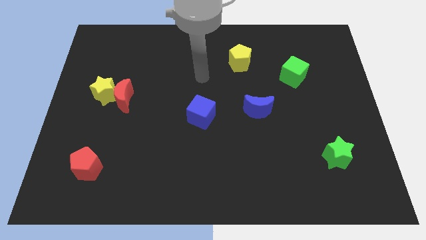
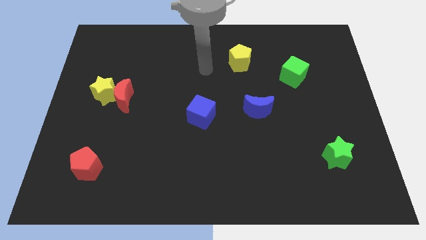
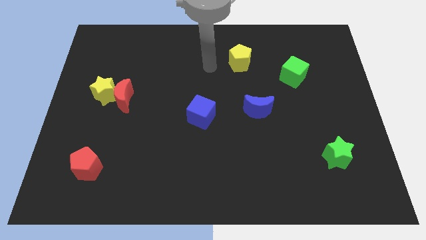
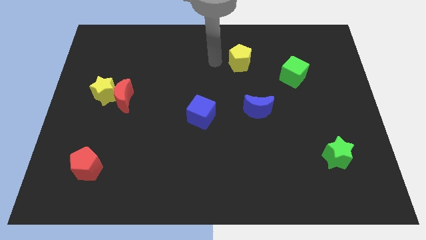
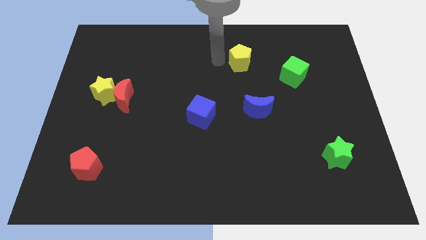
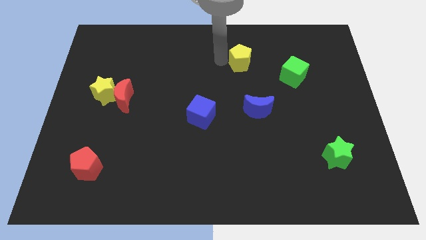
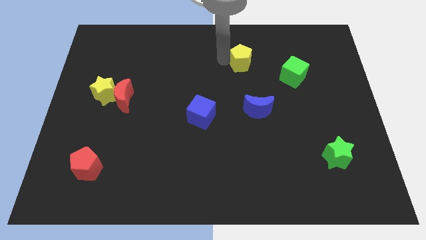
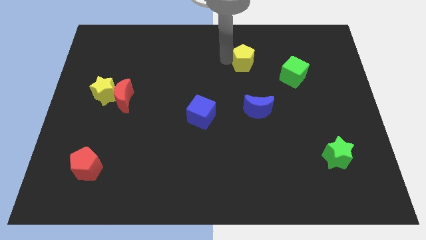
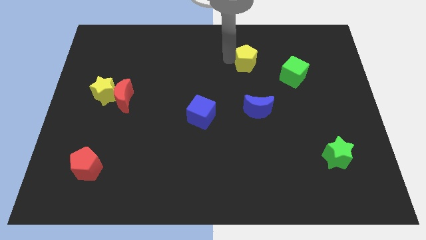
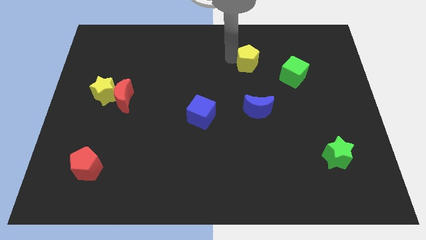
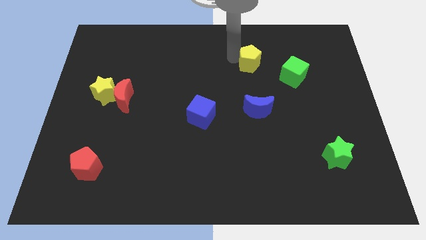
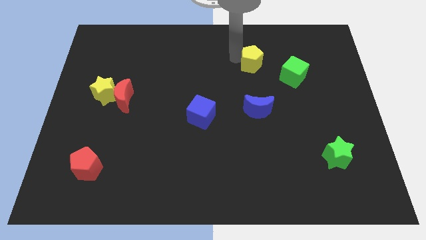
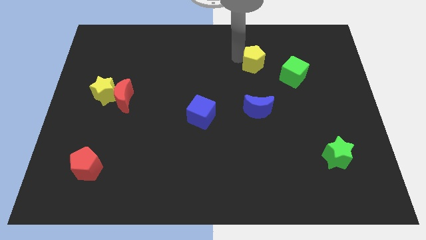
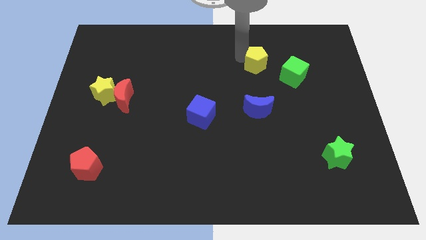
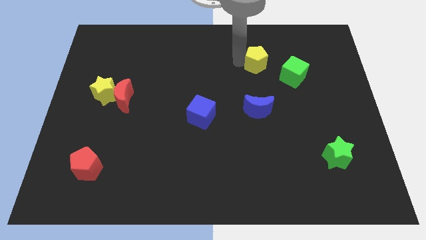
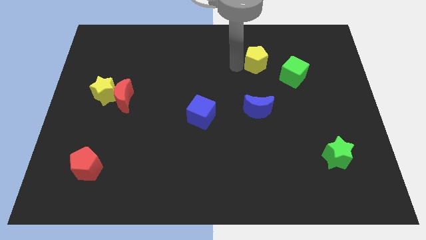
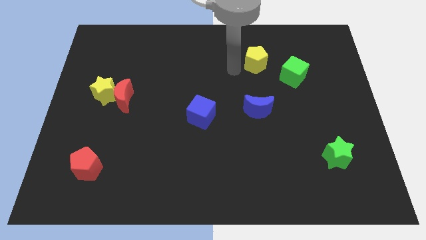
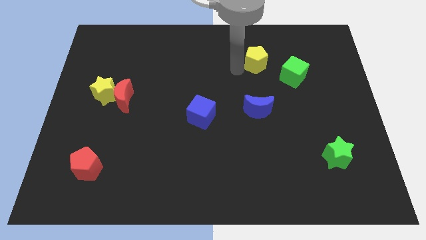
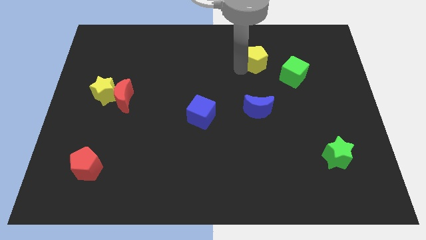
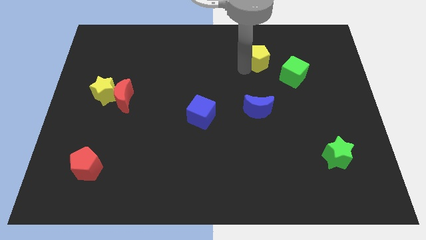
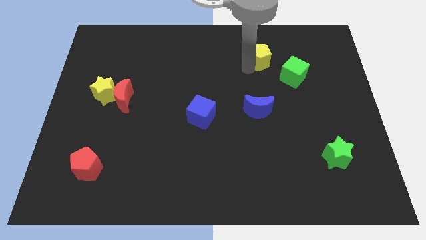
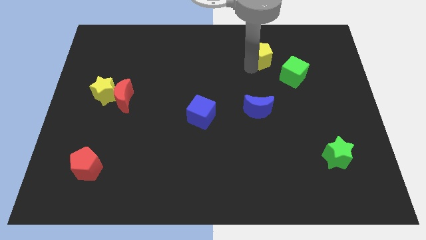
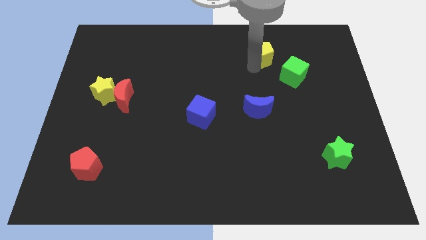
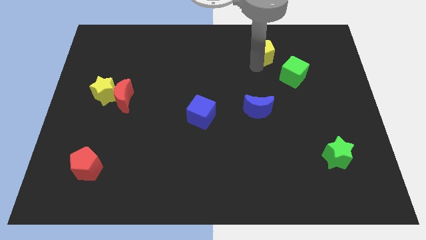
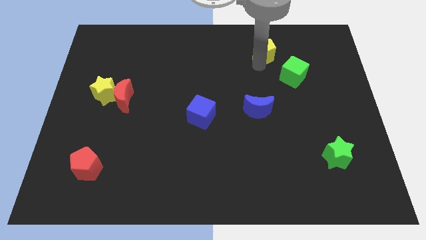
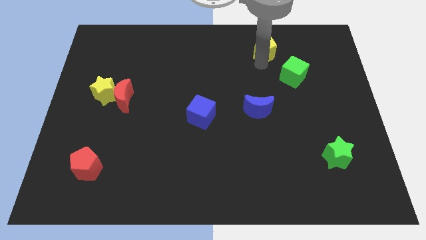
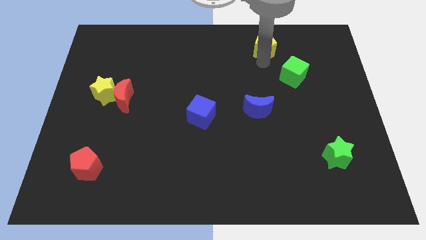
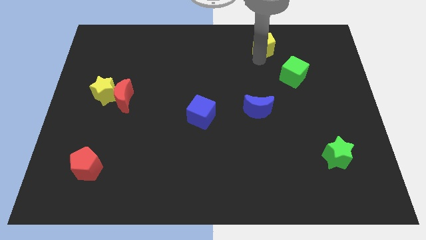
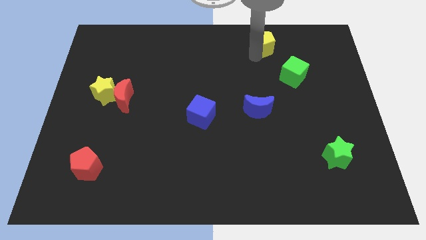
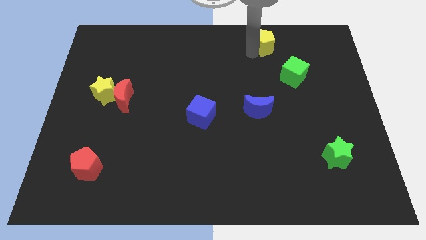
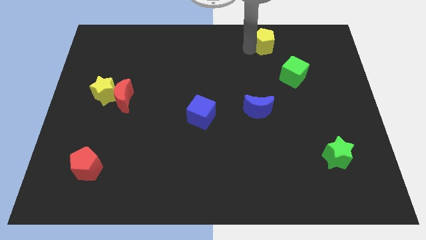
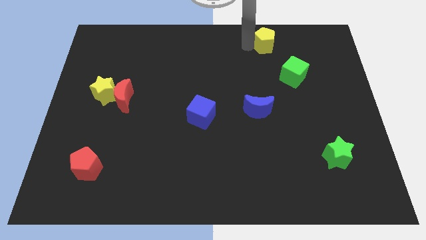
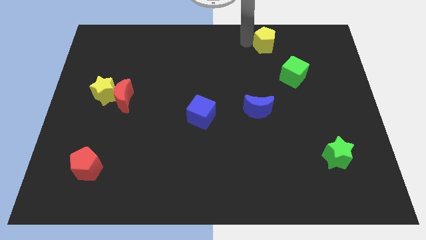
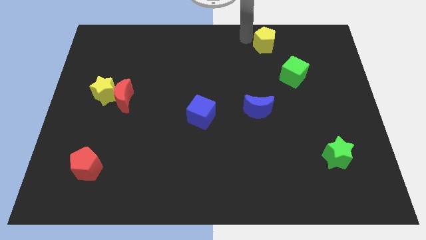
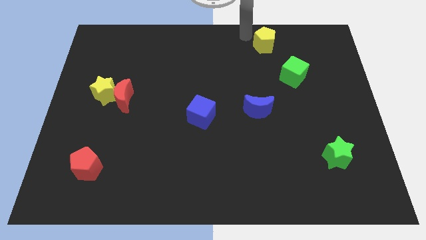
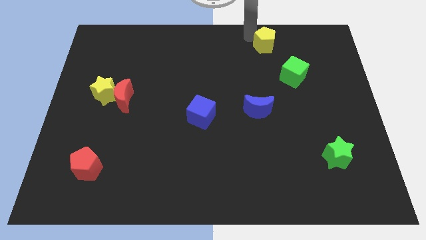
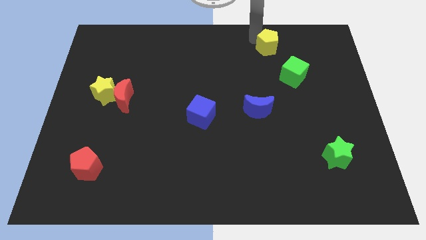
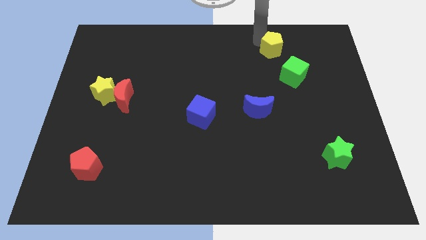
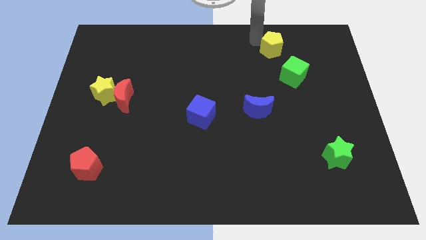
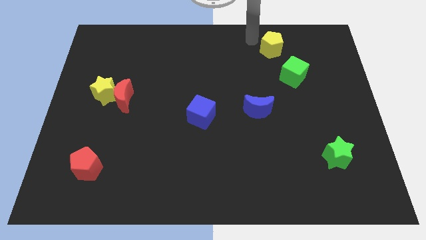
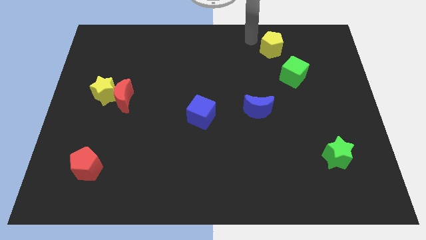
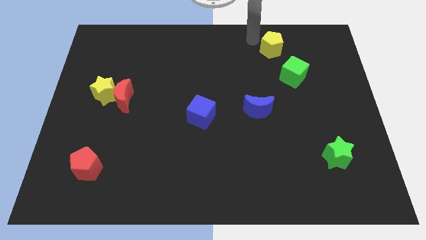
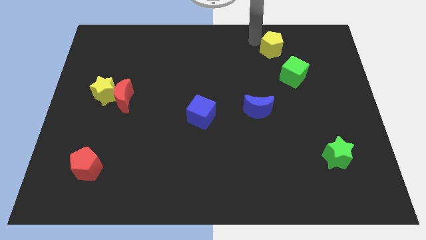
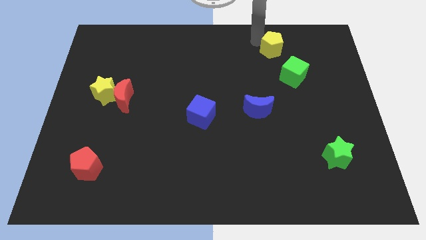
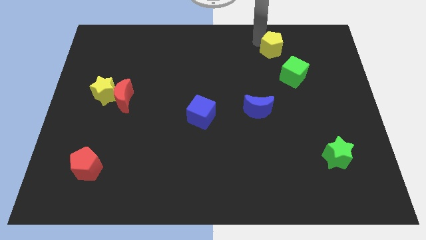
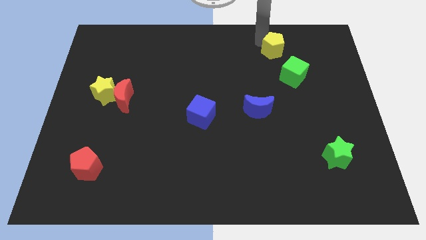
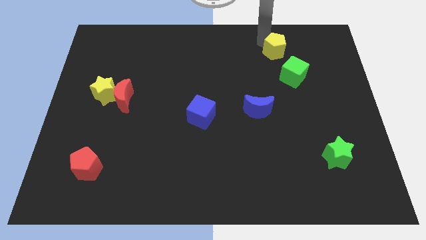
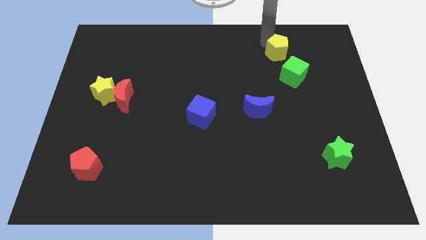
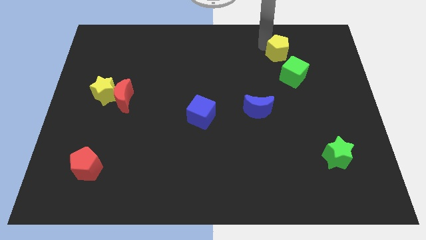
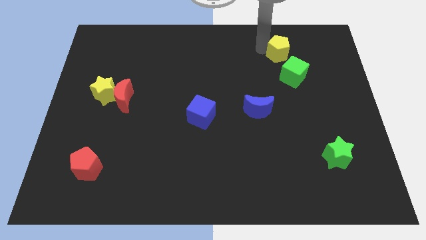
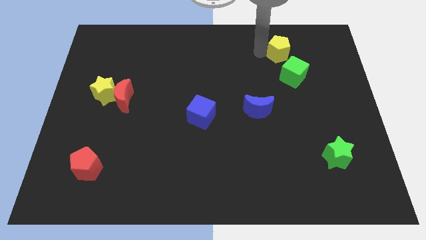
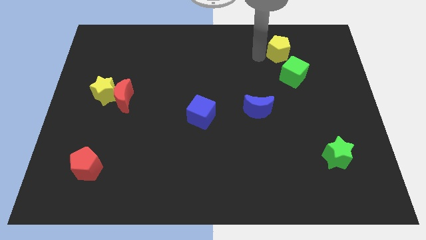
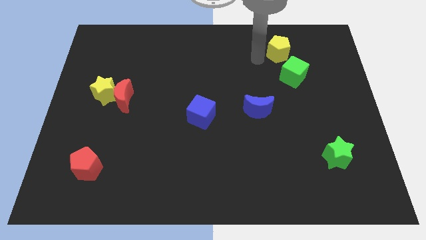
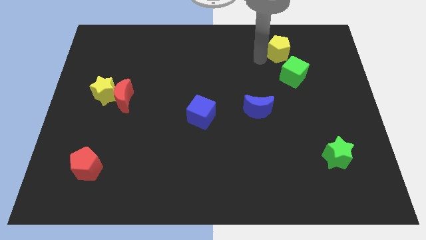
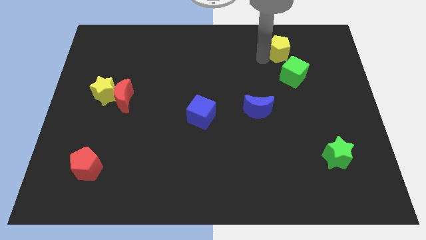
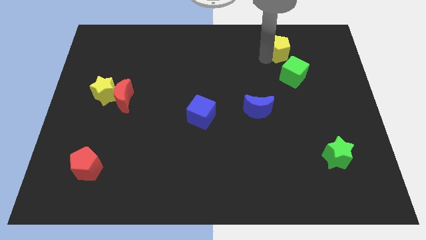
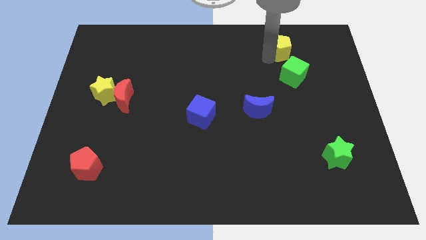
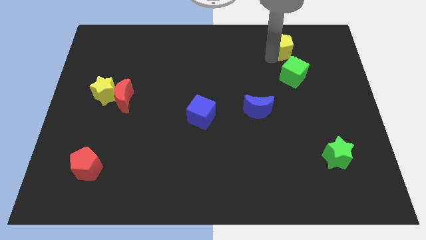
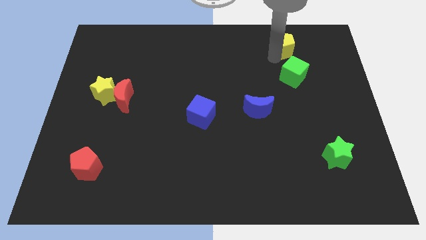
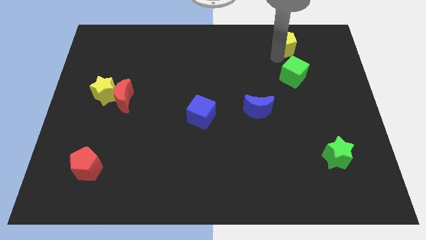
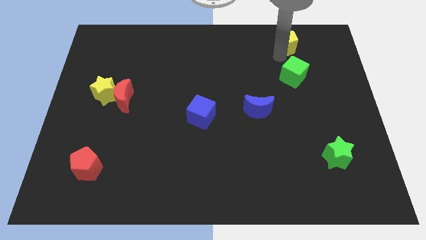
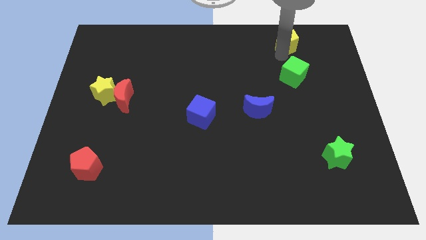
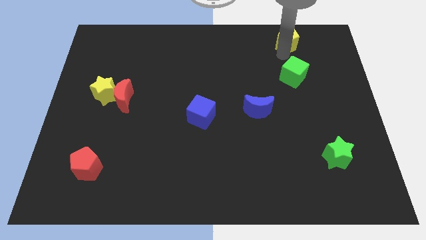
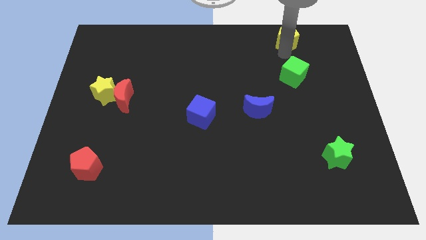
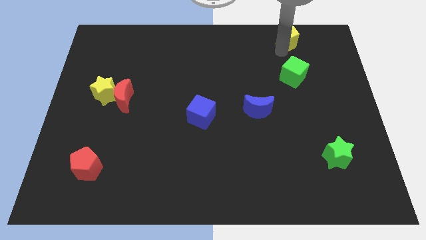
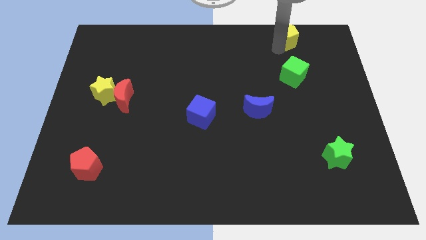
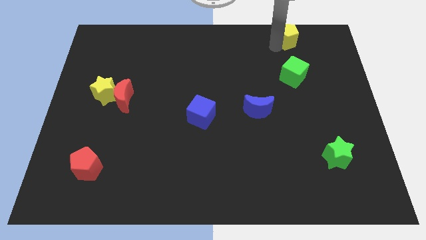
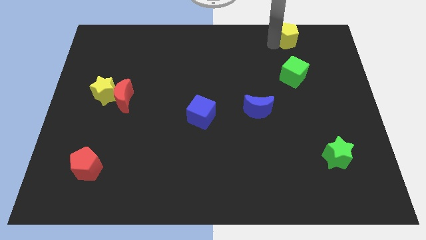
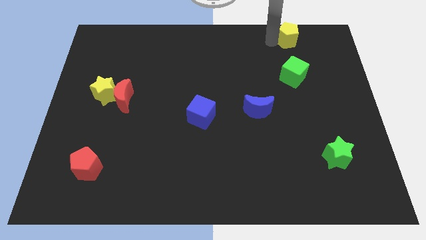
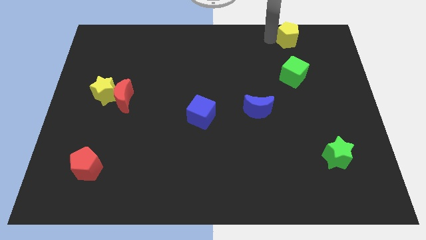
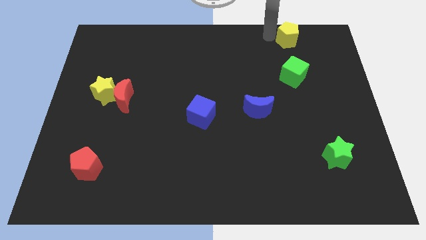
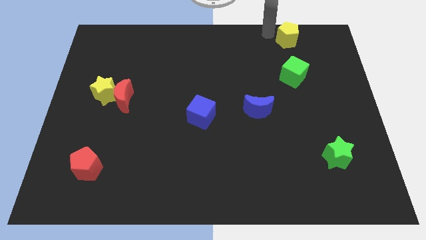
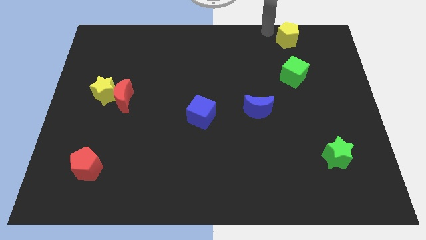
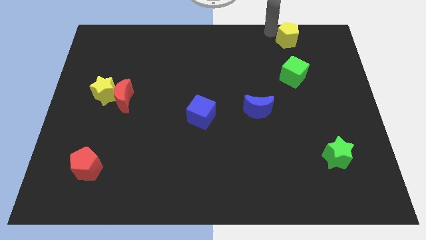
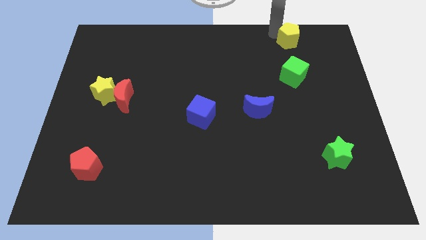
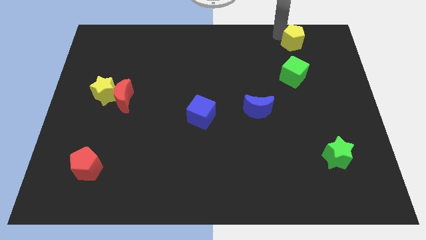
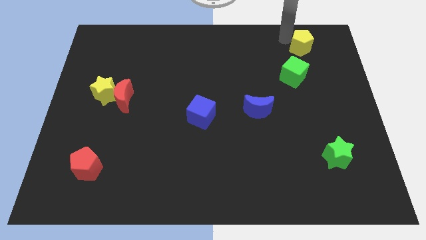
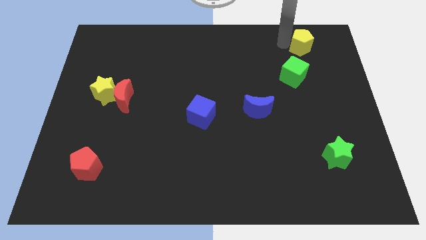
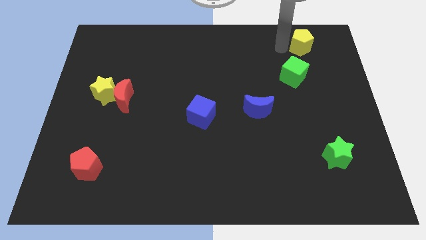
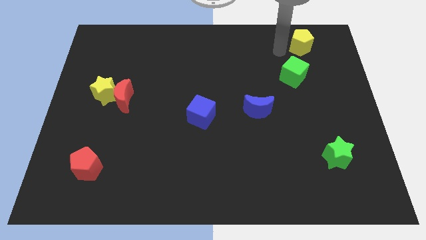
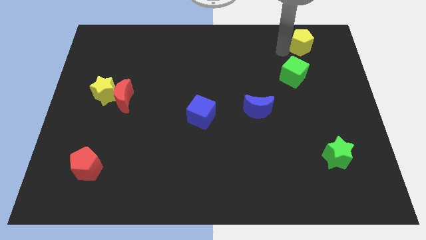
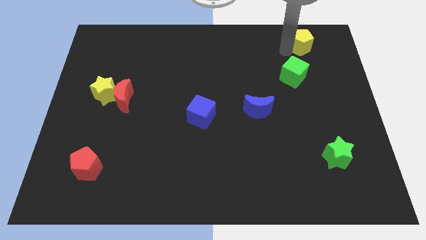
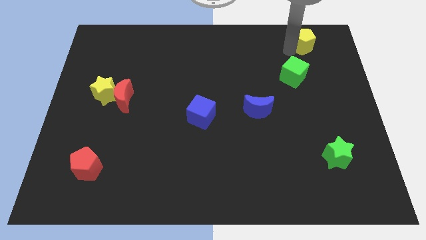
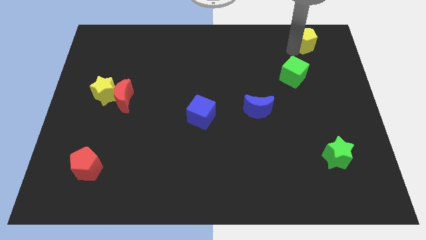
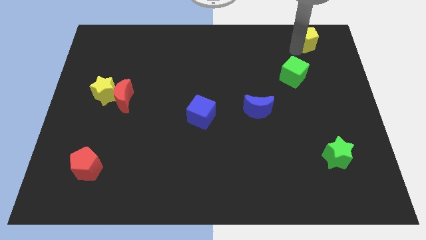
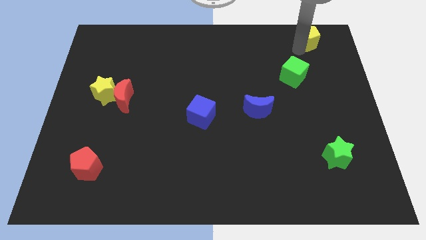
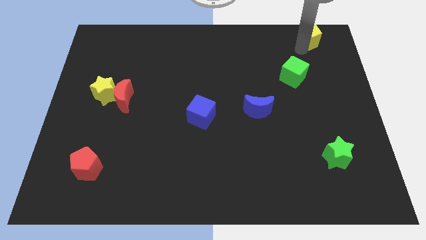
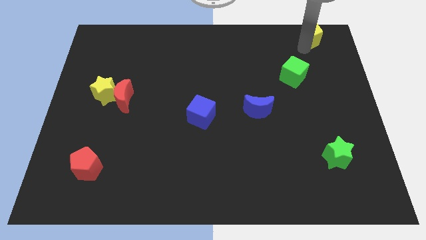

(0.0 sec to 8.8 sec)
move the yellow pentagon to the top right
